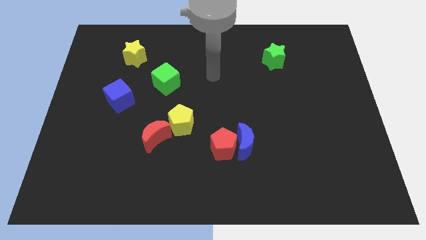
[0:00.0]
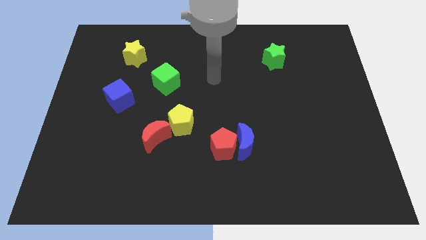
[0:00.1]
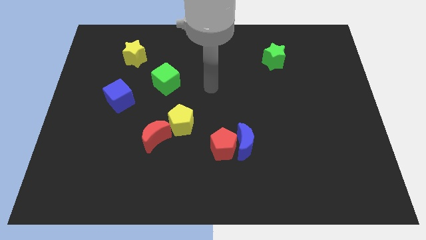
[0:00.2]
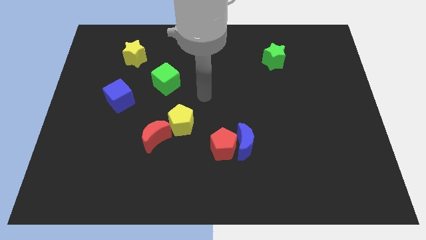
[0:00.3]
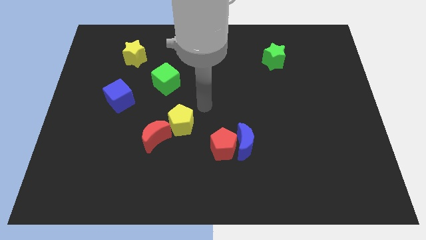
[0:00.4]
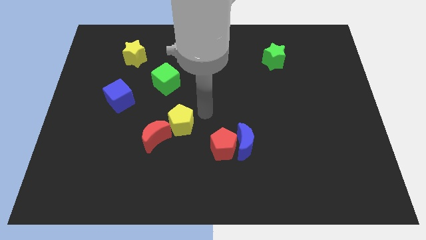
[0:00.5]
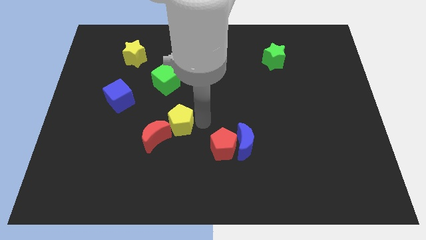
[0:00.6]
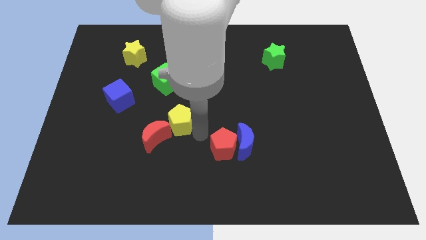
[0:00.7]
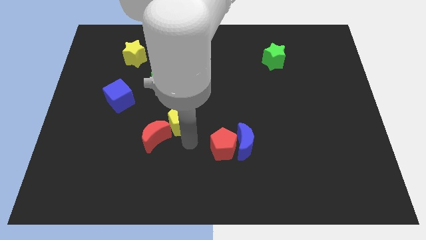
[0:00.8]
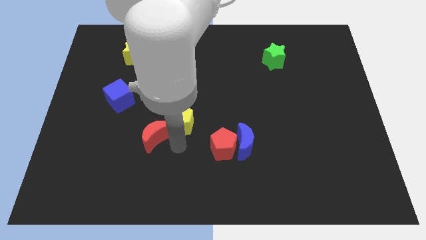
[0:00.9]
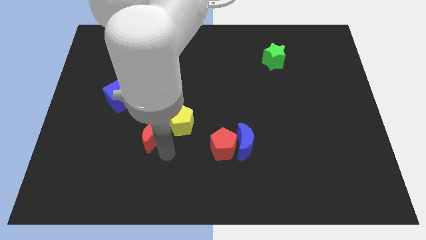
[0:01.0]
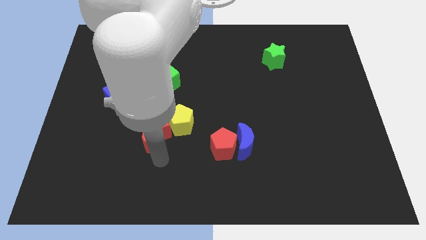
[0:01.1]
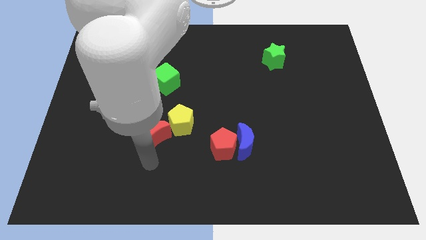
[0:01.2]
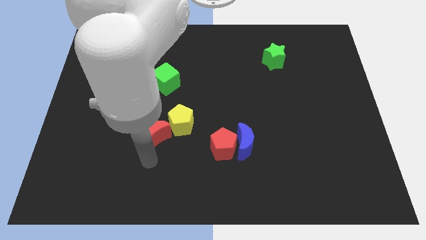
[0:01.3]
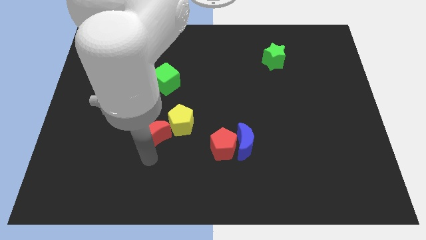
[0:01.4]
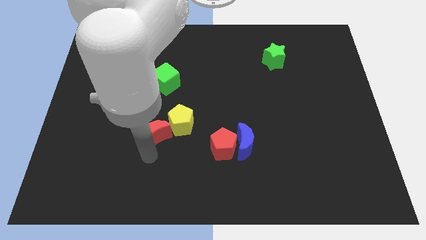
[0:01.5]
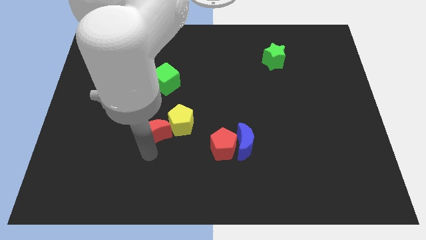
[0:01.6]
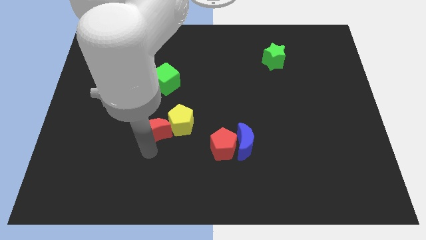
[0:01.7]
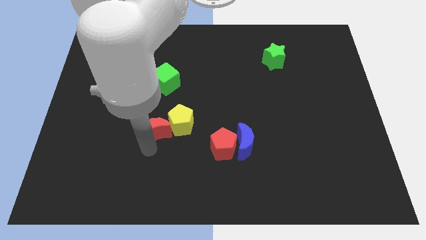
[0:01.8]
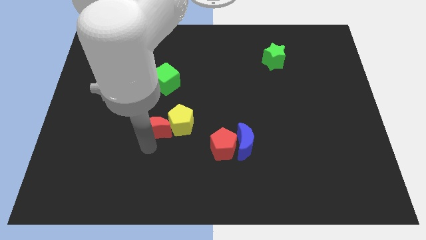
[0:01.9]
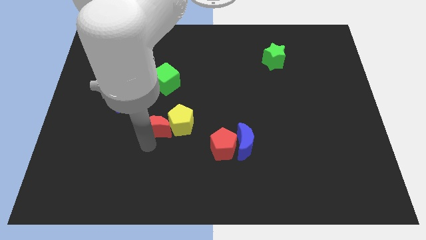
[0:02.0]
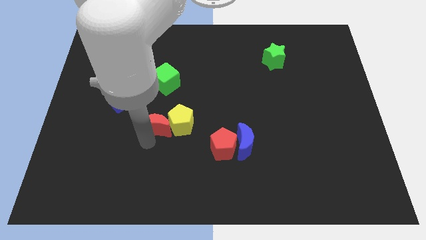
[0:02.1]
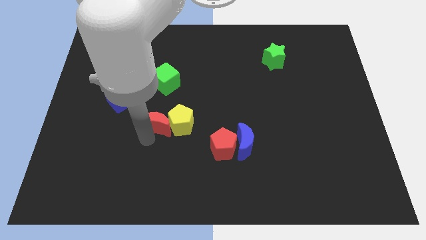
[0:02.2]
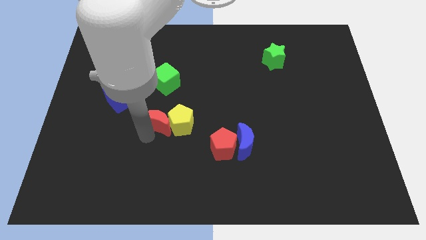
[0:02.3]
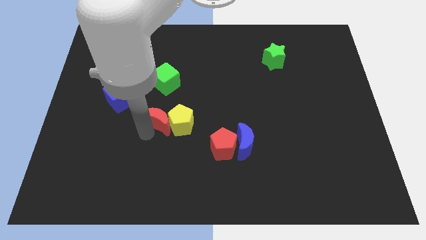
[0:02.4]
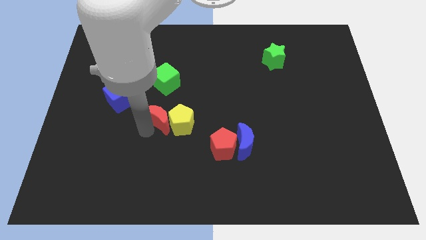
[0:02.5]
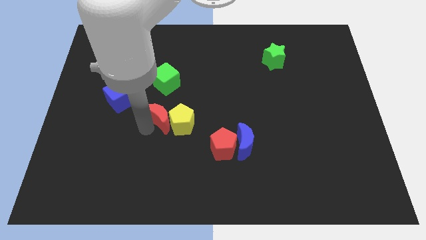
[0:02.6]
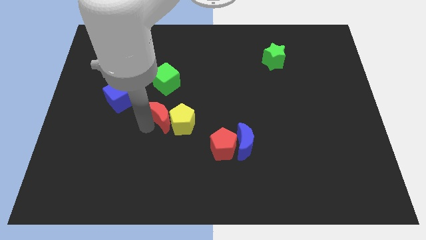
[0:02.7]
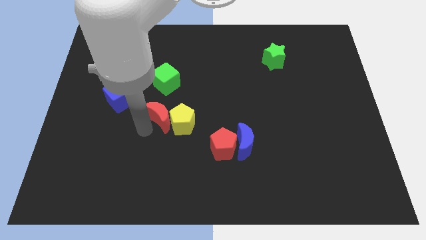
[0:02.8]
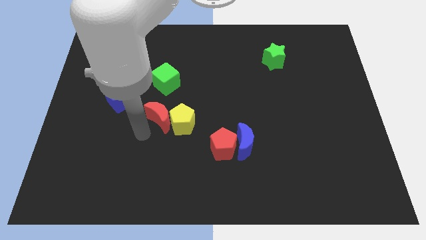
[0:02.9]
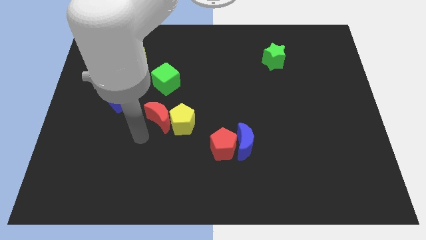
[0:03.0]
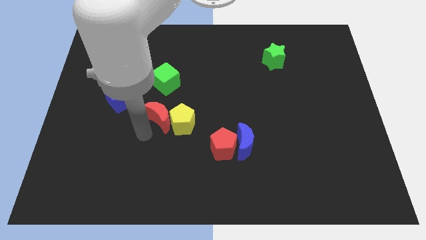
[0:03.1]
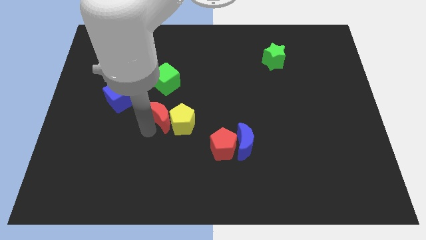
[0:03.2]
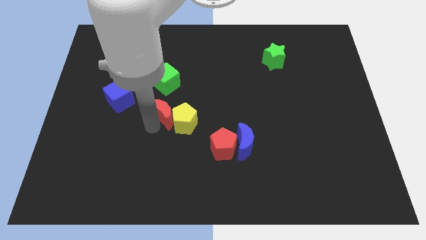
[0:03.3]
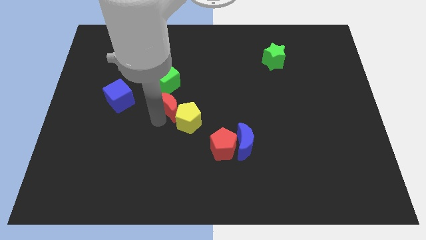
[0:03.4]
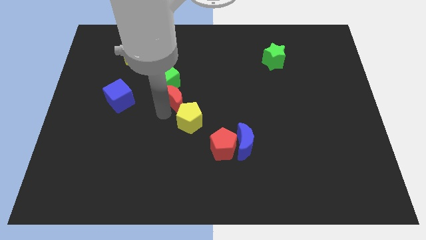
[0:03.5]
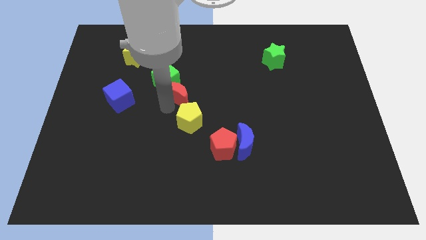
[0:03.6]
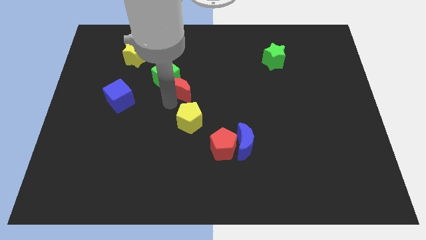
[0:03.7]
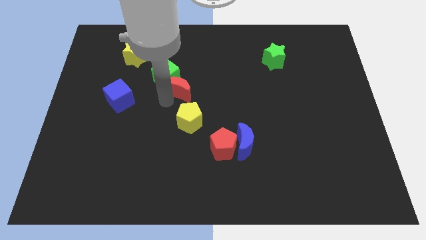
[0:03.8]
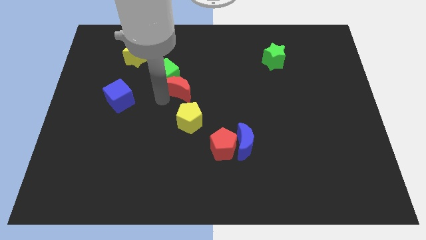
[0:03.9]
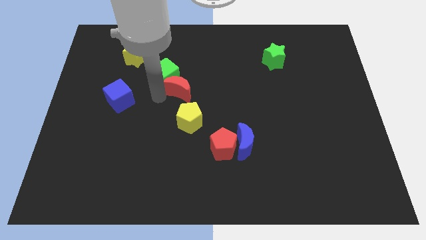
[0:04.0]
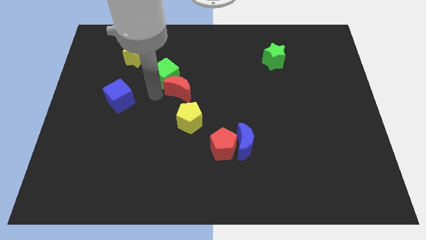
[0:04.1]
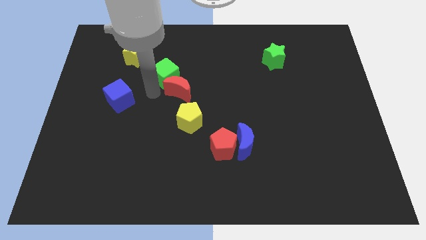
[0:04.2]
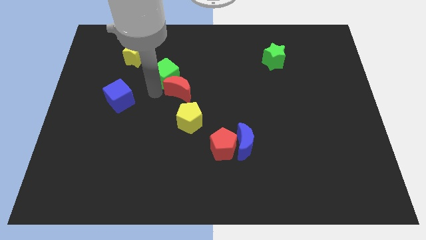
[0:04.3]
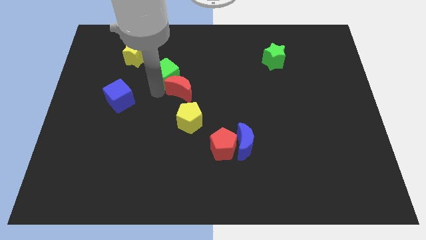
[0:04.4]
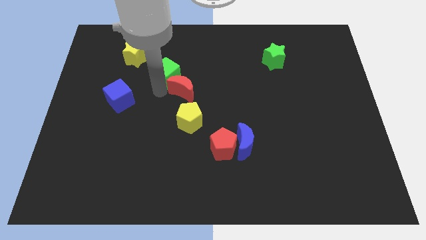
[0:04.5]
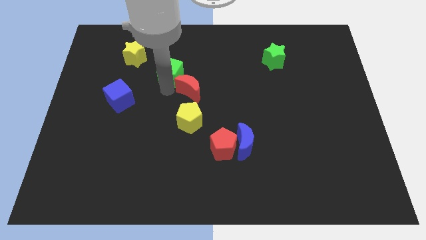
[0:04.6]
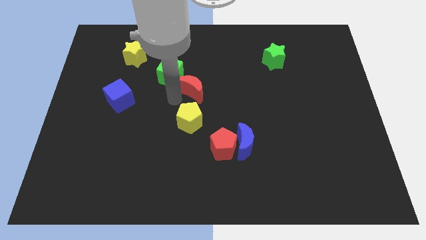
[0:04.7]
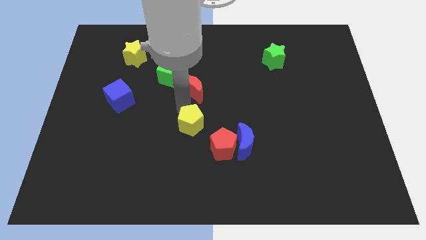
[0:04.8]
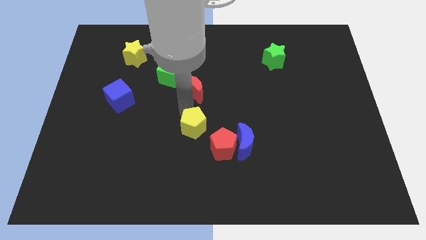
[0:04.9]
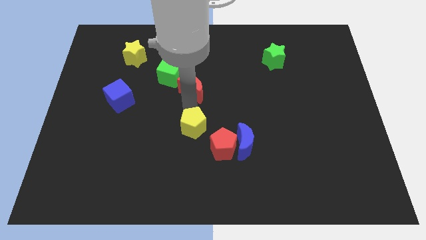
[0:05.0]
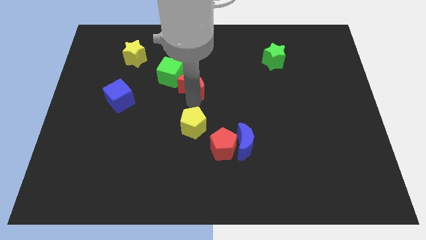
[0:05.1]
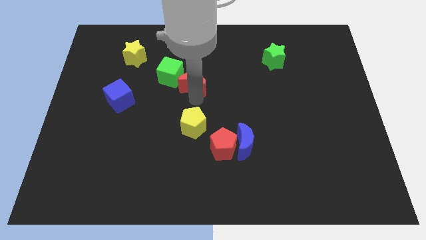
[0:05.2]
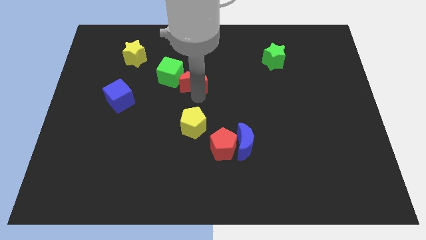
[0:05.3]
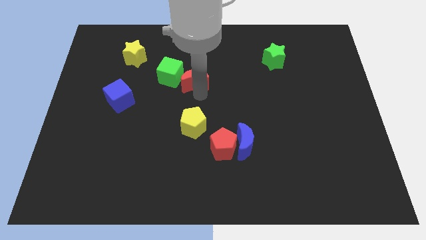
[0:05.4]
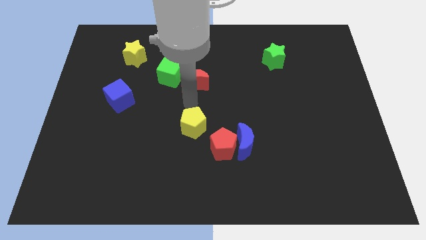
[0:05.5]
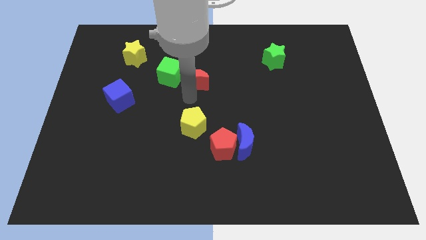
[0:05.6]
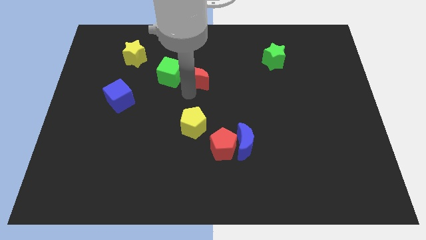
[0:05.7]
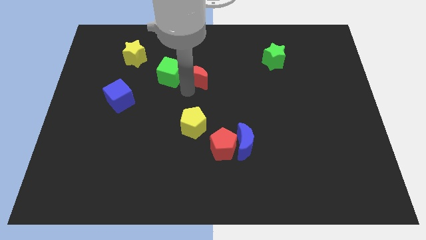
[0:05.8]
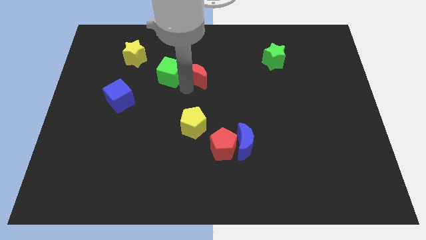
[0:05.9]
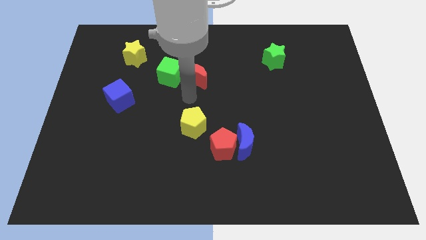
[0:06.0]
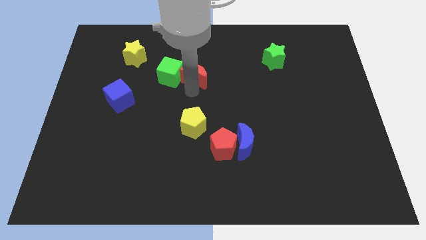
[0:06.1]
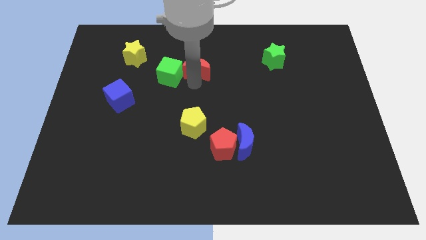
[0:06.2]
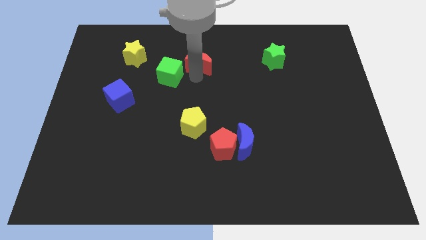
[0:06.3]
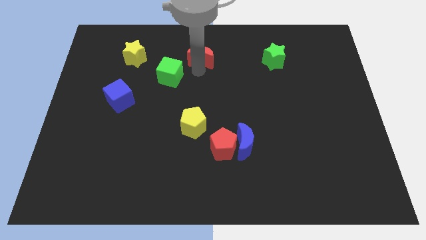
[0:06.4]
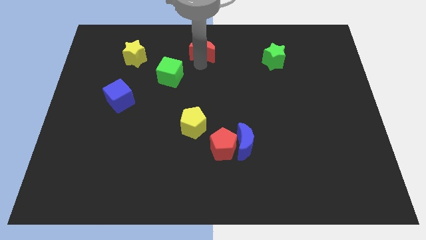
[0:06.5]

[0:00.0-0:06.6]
move the red moon to the towards your base
